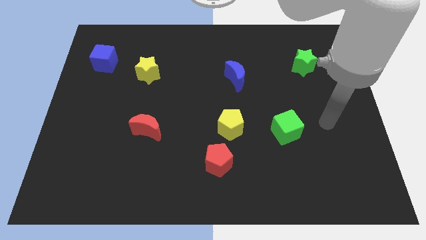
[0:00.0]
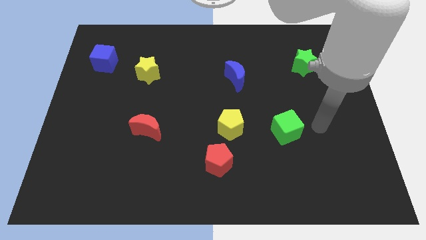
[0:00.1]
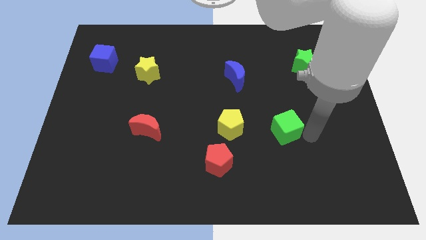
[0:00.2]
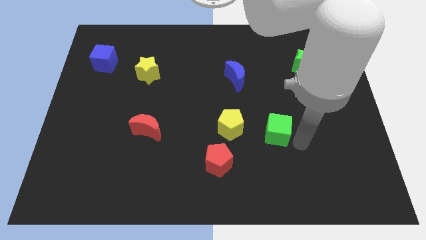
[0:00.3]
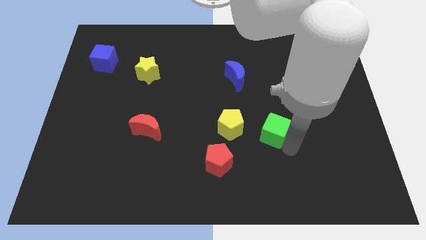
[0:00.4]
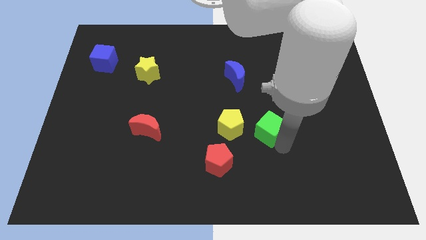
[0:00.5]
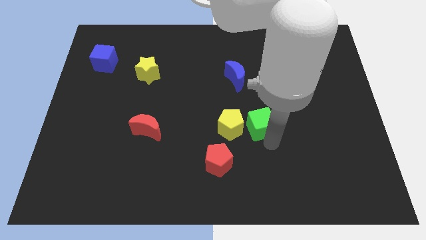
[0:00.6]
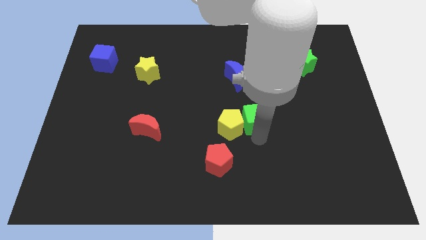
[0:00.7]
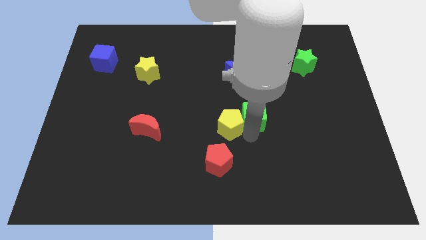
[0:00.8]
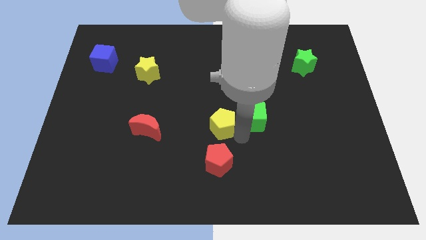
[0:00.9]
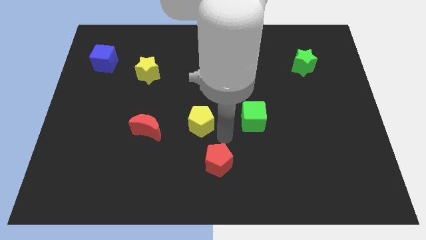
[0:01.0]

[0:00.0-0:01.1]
move the red pentagon away from the yellow pentagon

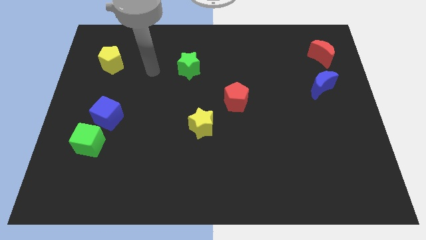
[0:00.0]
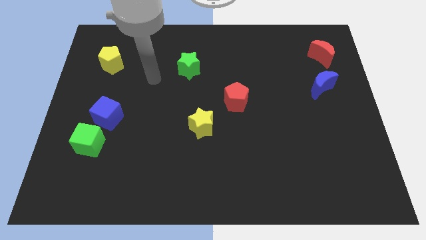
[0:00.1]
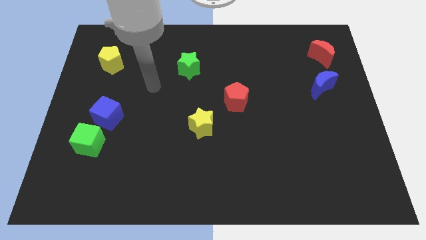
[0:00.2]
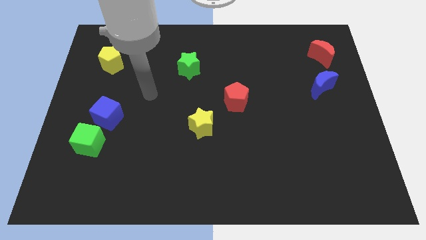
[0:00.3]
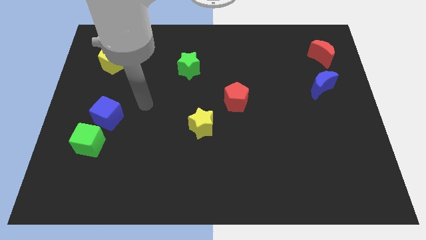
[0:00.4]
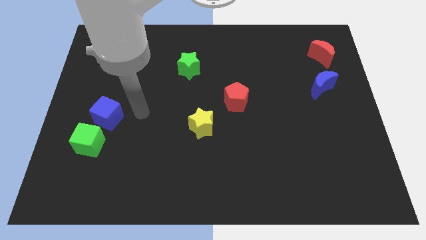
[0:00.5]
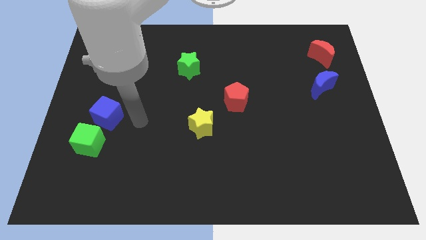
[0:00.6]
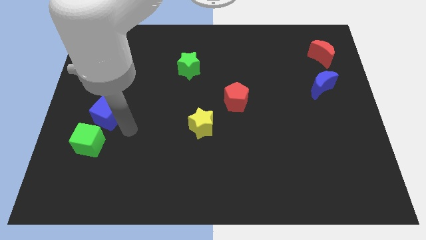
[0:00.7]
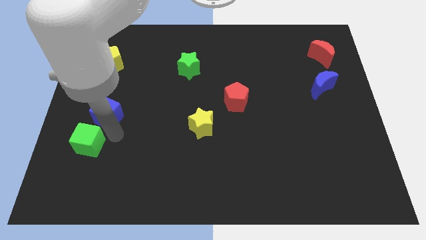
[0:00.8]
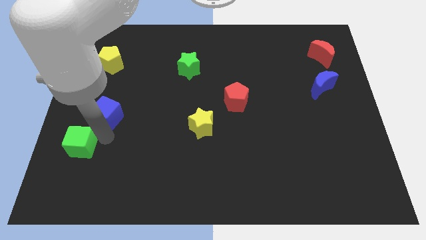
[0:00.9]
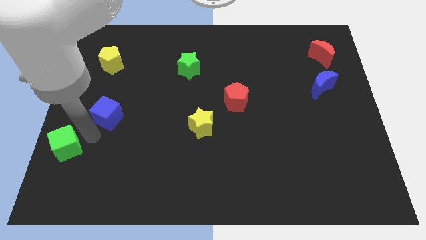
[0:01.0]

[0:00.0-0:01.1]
separate the blue cube from the green cube

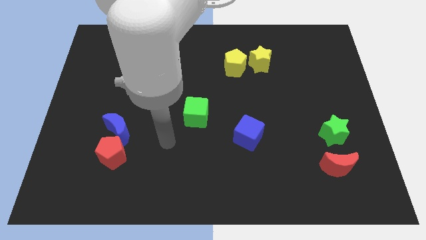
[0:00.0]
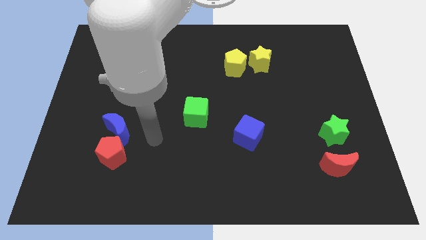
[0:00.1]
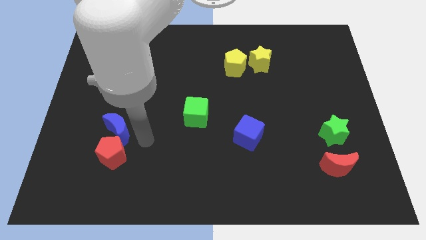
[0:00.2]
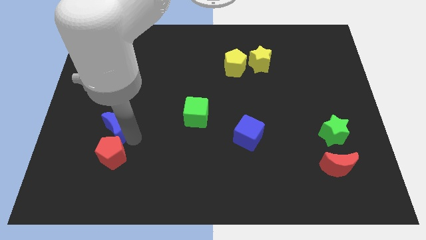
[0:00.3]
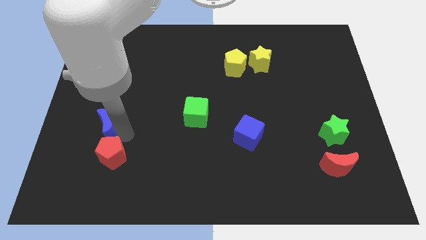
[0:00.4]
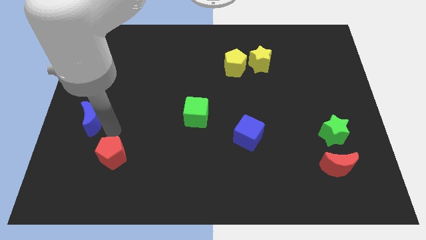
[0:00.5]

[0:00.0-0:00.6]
separate the red pentagon from the blue moon

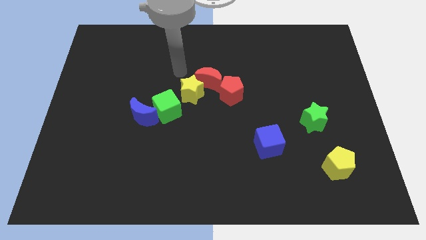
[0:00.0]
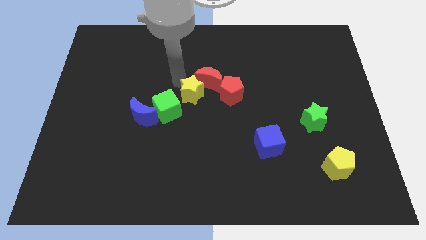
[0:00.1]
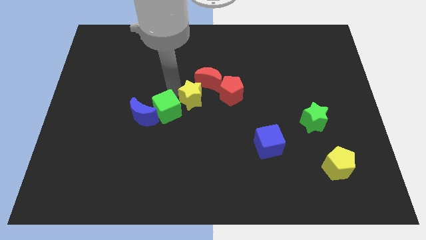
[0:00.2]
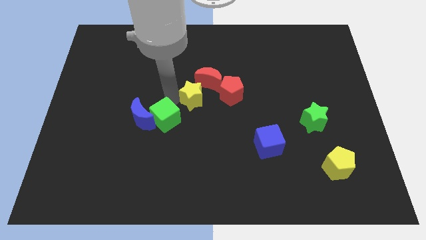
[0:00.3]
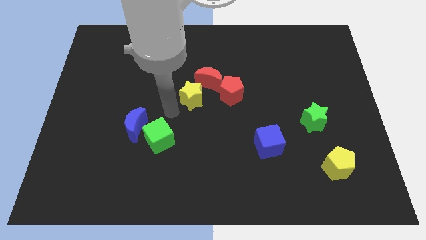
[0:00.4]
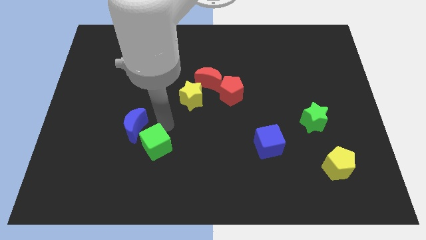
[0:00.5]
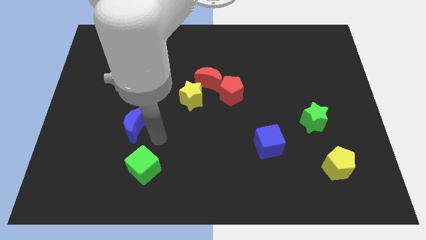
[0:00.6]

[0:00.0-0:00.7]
separate the blue moon from the green cube

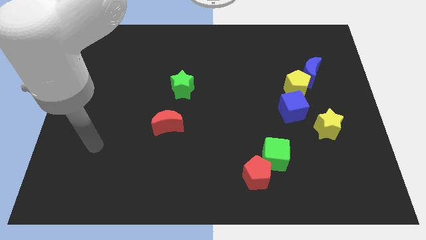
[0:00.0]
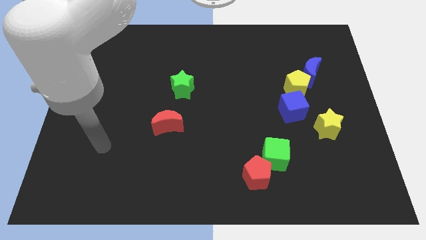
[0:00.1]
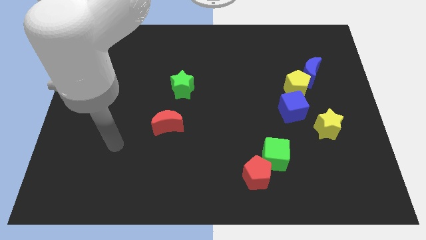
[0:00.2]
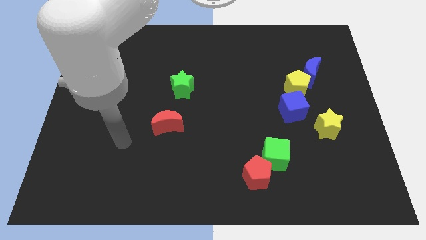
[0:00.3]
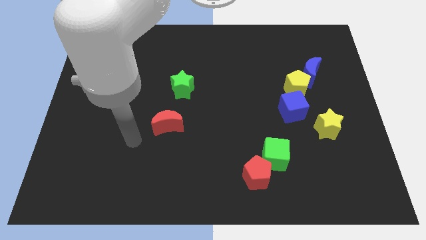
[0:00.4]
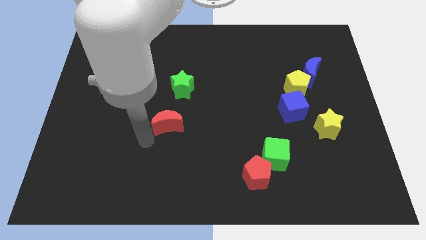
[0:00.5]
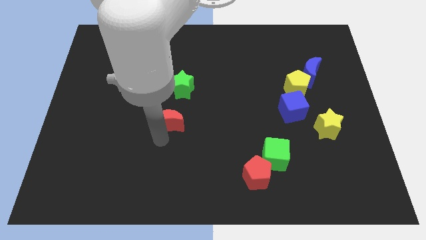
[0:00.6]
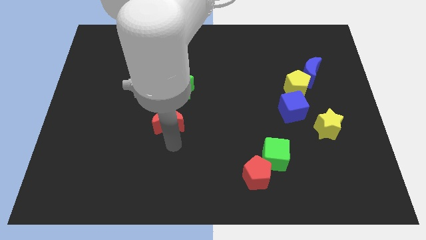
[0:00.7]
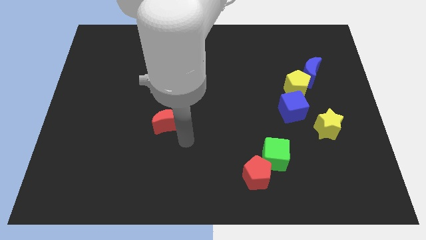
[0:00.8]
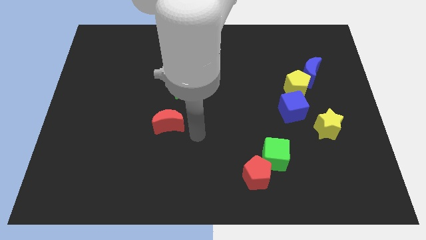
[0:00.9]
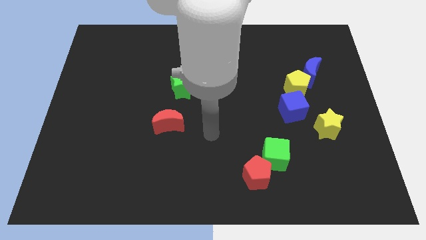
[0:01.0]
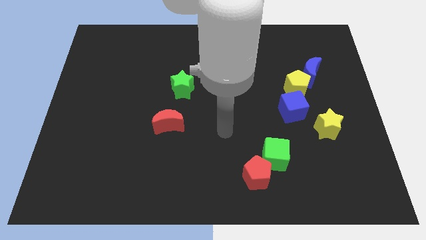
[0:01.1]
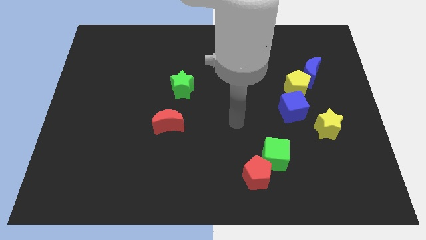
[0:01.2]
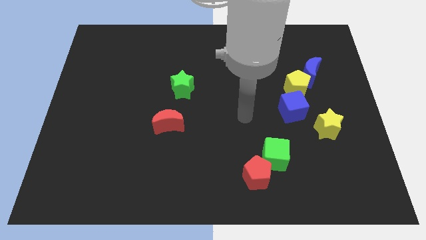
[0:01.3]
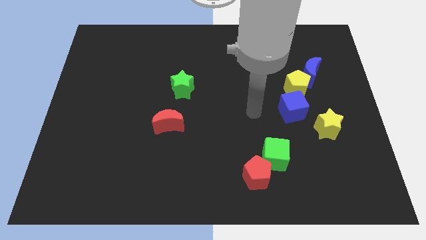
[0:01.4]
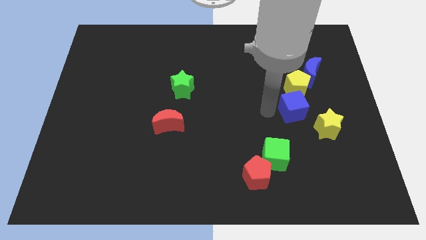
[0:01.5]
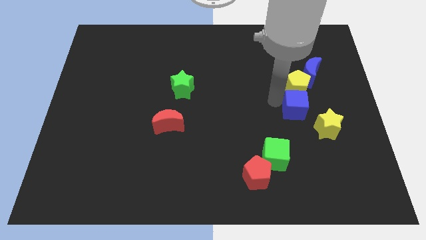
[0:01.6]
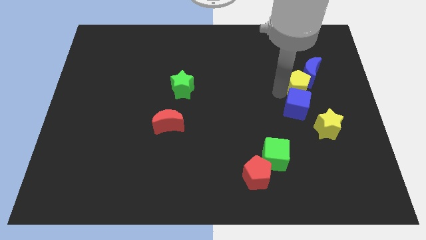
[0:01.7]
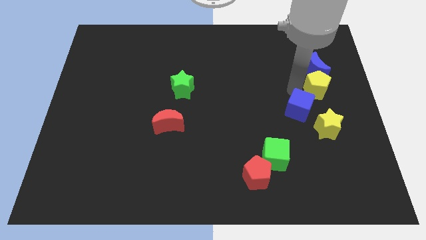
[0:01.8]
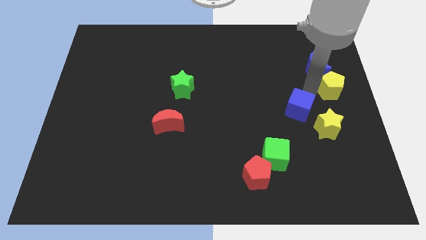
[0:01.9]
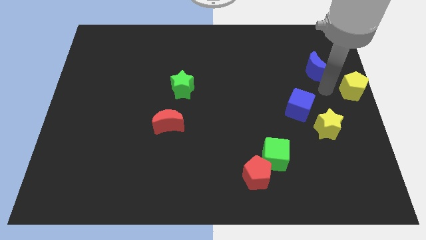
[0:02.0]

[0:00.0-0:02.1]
separate the blue moon from the yellow pentagon

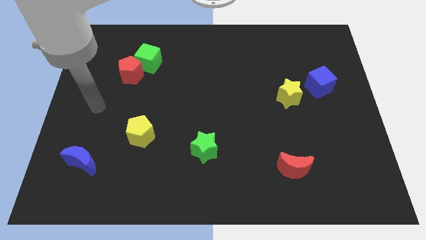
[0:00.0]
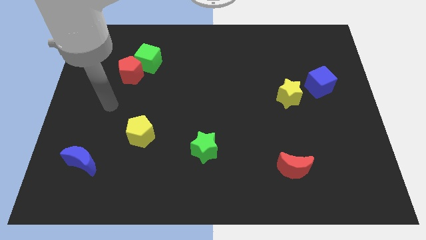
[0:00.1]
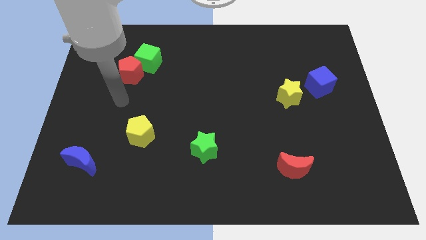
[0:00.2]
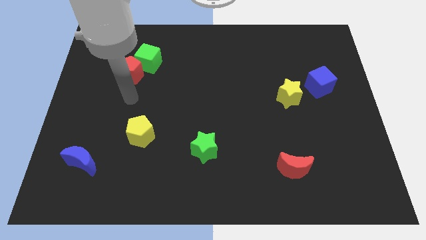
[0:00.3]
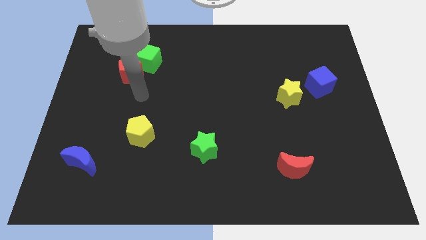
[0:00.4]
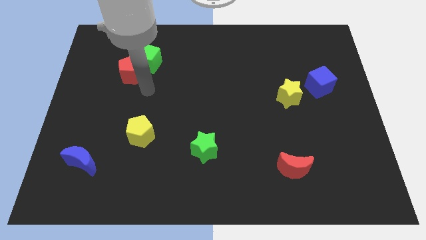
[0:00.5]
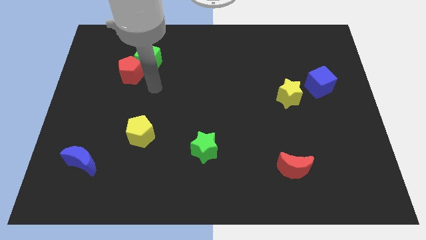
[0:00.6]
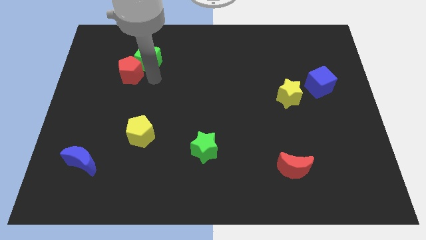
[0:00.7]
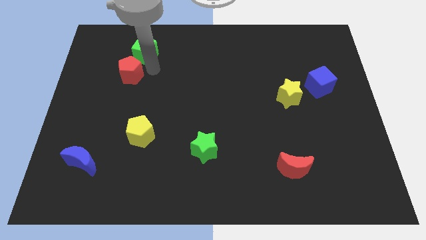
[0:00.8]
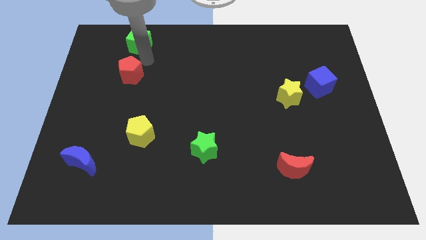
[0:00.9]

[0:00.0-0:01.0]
pull the red pentagon apart from the green cube

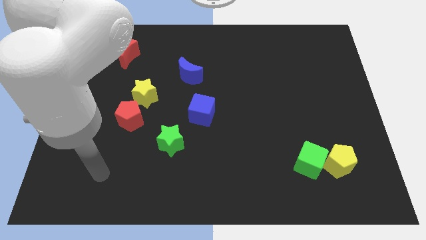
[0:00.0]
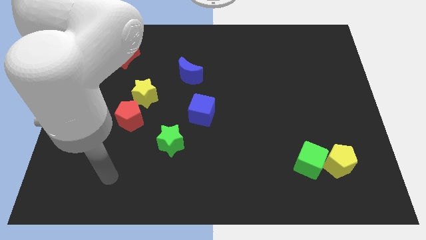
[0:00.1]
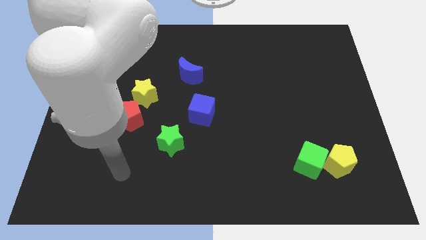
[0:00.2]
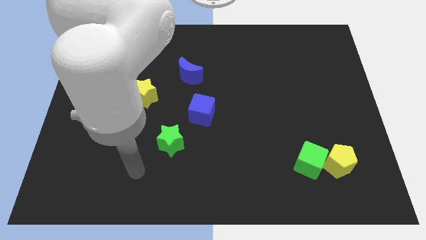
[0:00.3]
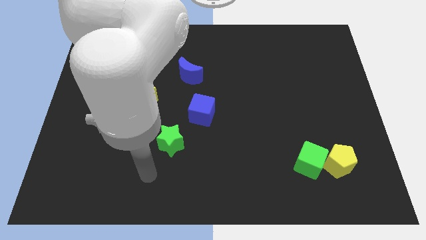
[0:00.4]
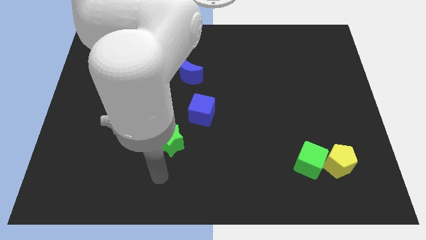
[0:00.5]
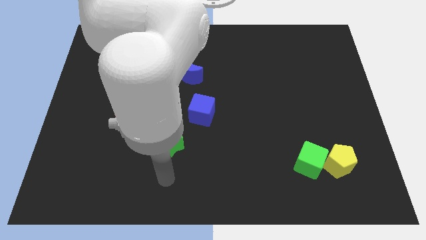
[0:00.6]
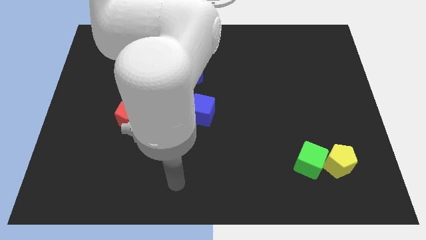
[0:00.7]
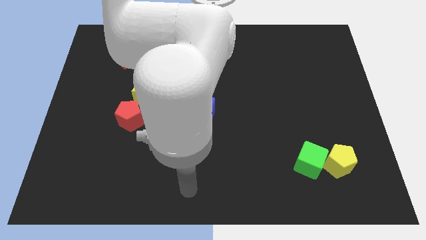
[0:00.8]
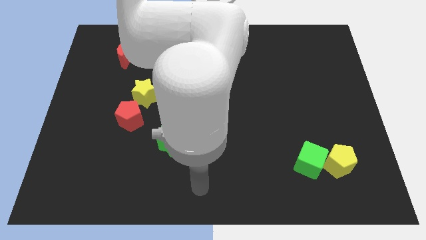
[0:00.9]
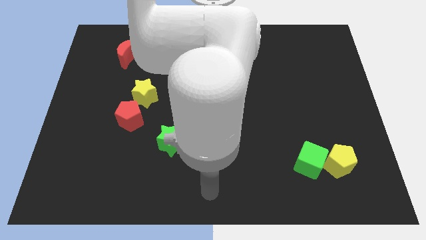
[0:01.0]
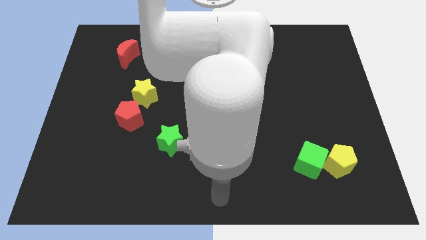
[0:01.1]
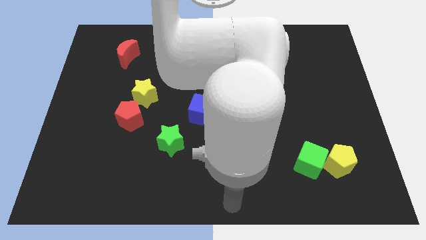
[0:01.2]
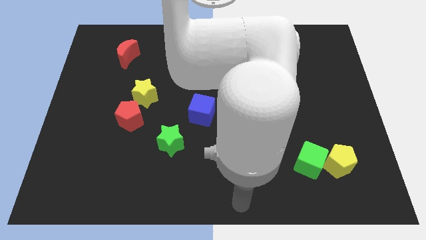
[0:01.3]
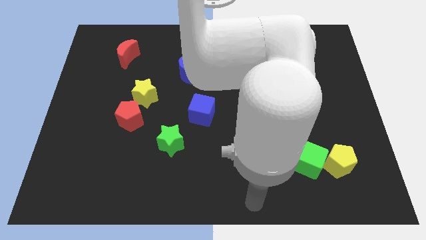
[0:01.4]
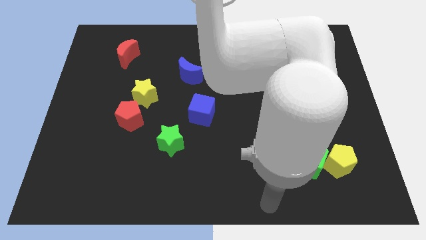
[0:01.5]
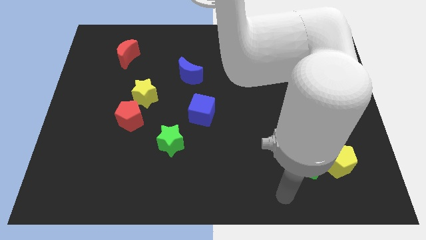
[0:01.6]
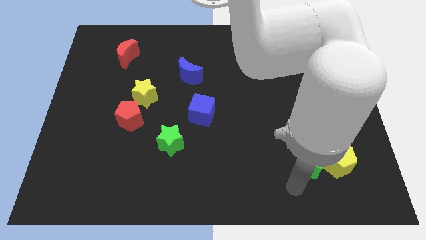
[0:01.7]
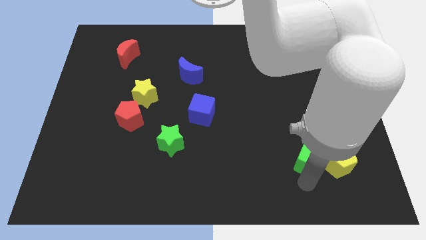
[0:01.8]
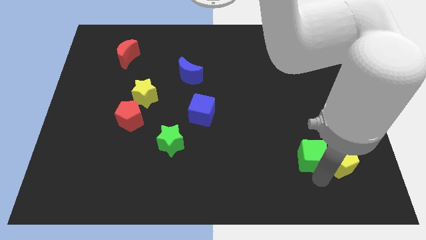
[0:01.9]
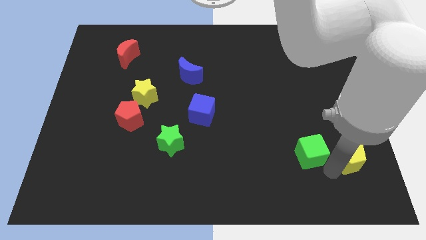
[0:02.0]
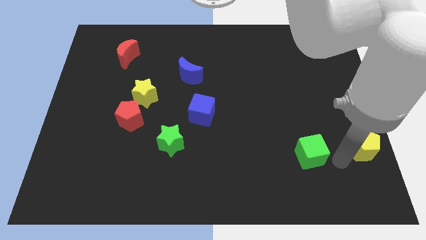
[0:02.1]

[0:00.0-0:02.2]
pull the green cube apart from the yellow pentagon

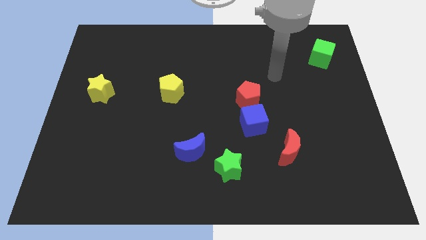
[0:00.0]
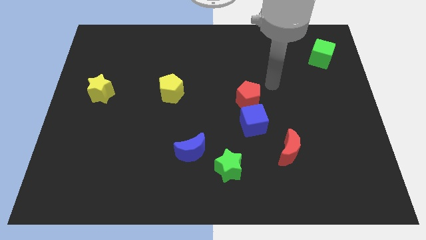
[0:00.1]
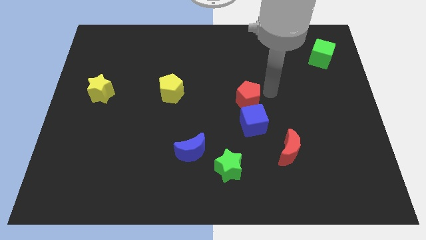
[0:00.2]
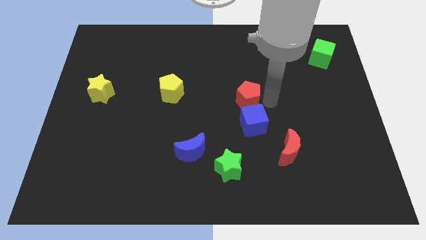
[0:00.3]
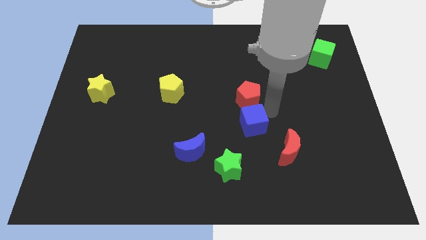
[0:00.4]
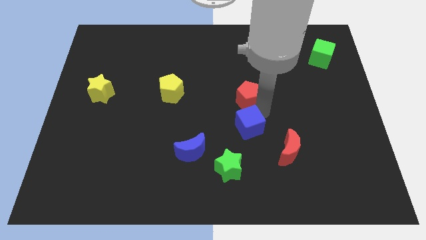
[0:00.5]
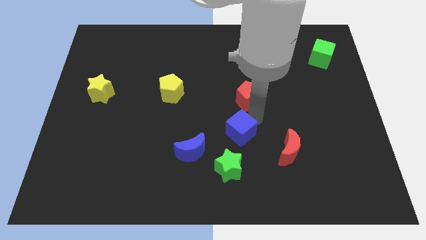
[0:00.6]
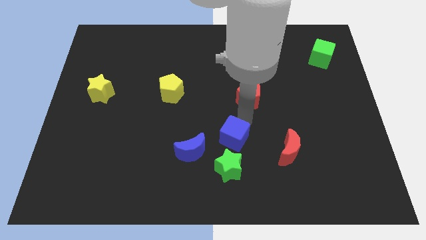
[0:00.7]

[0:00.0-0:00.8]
move the red pentagon away from the blue cube
